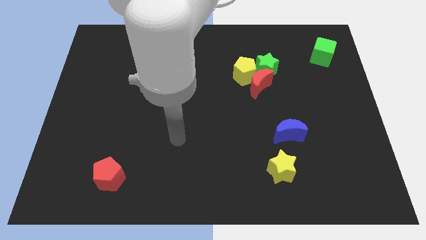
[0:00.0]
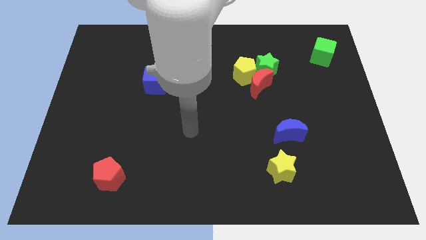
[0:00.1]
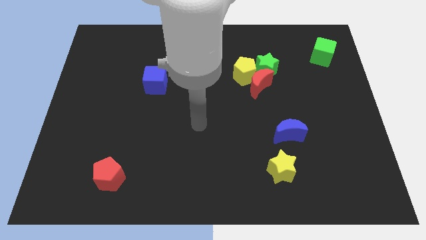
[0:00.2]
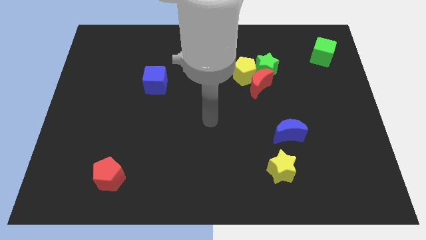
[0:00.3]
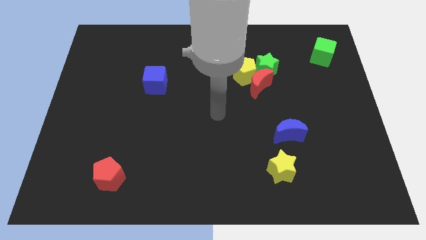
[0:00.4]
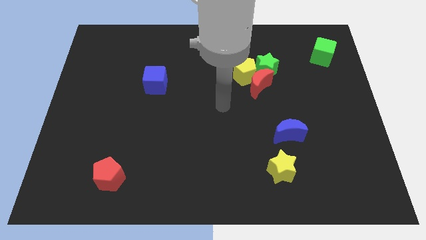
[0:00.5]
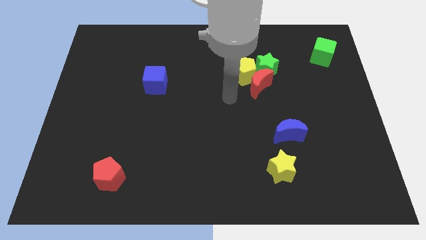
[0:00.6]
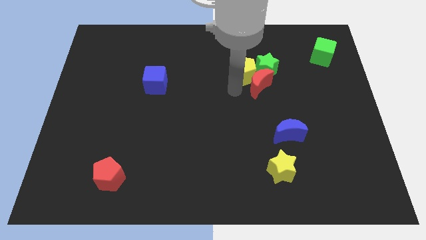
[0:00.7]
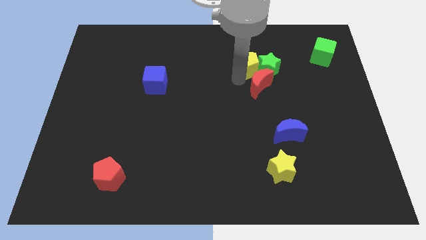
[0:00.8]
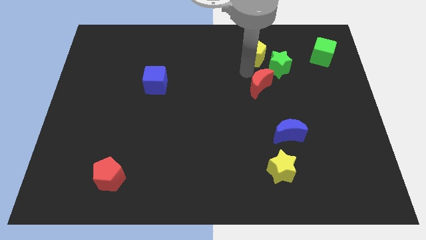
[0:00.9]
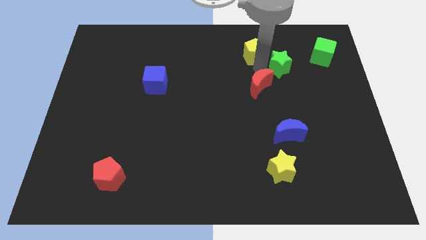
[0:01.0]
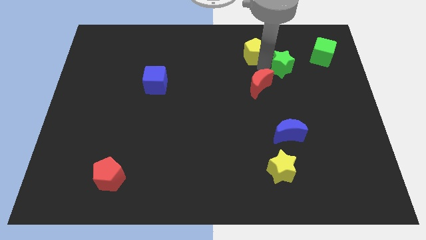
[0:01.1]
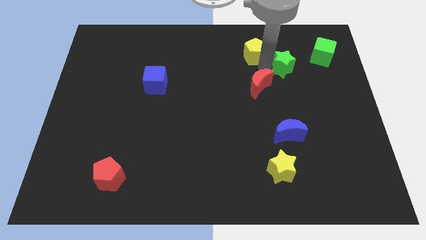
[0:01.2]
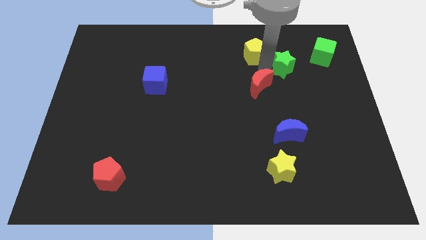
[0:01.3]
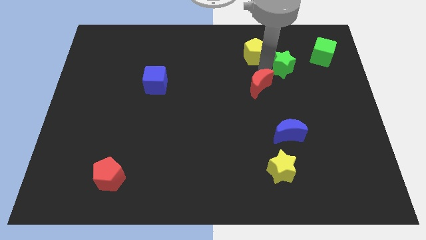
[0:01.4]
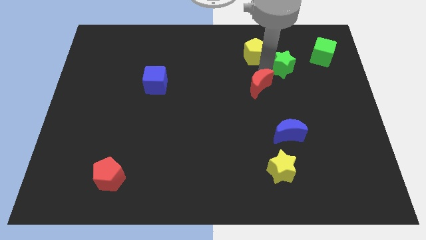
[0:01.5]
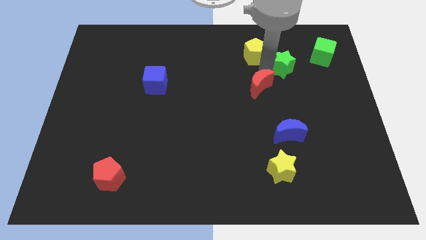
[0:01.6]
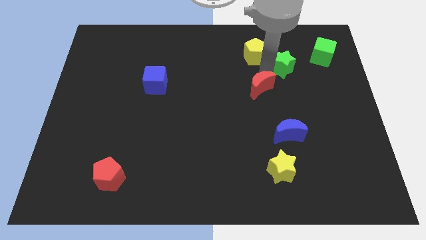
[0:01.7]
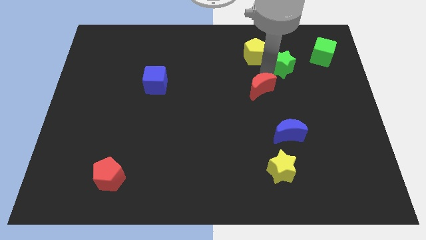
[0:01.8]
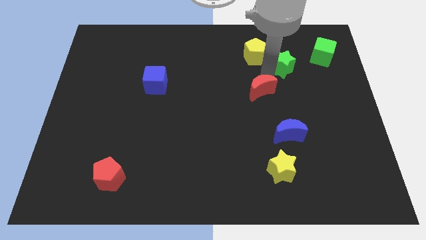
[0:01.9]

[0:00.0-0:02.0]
separate the red moon from the yellow pentagon and green star

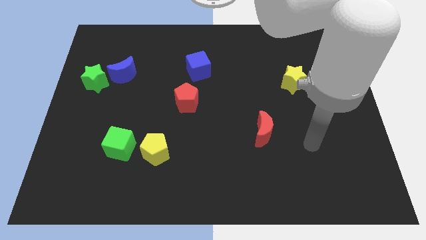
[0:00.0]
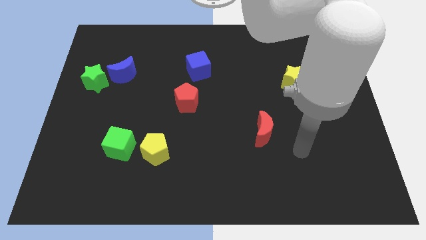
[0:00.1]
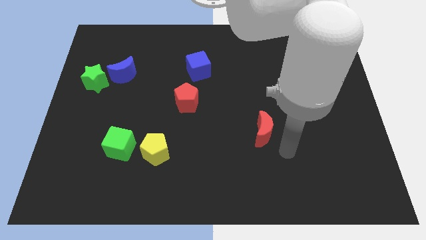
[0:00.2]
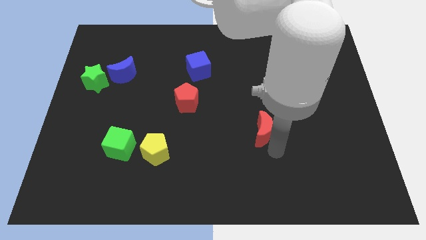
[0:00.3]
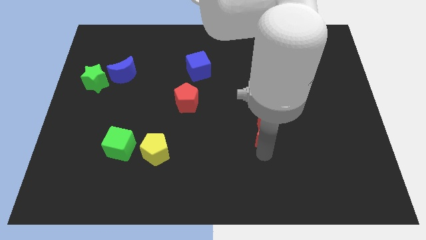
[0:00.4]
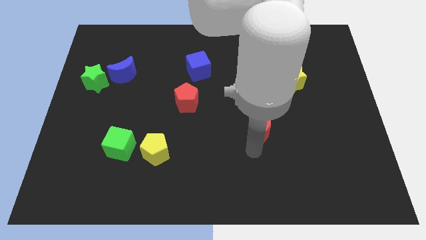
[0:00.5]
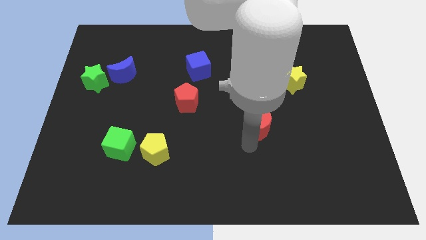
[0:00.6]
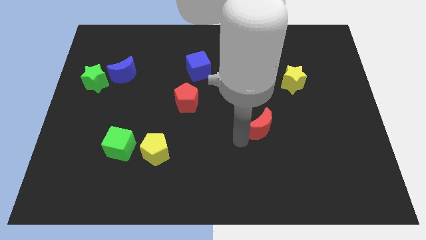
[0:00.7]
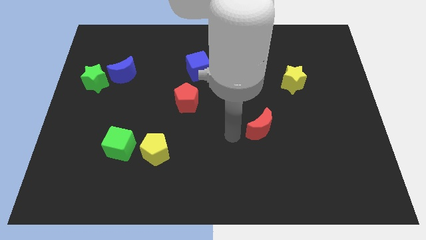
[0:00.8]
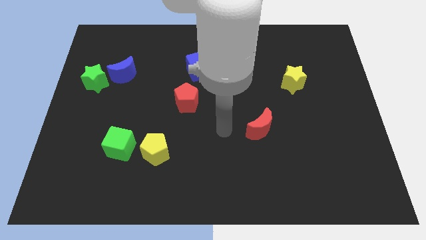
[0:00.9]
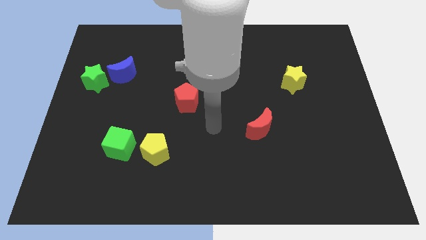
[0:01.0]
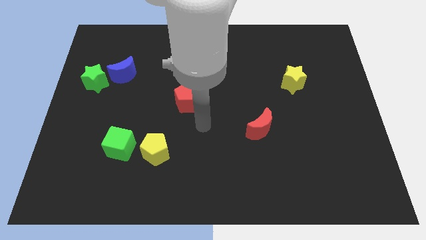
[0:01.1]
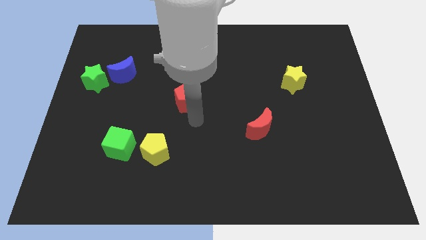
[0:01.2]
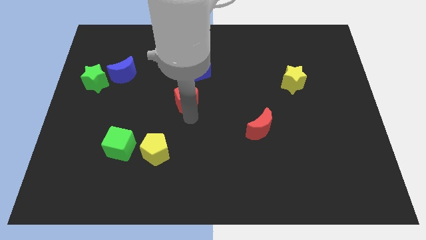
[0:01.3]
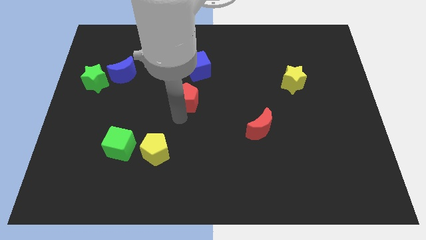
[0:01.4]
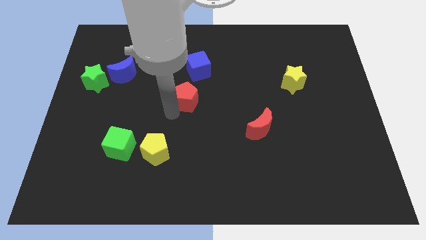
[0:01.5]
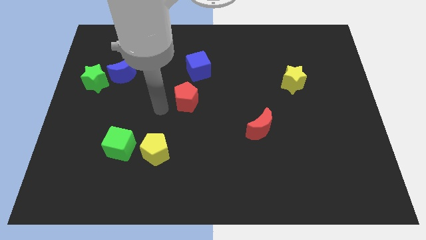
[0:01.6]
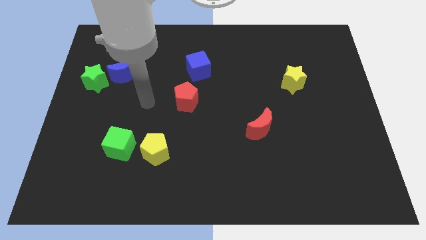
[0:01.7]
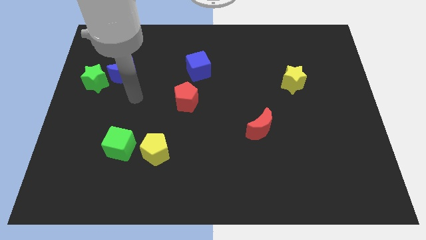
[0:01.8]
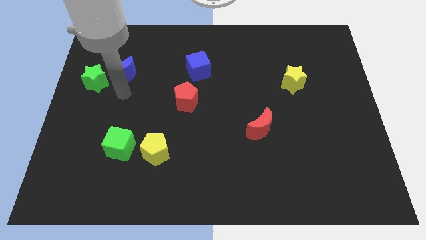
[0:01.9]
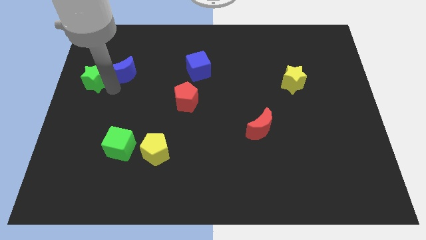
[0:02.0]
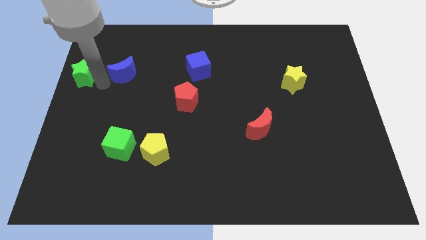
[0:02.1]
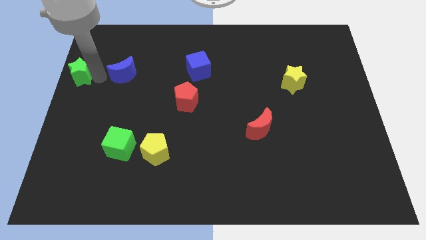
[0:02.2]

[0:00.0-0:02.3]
pull the blue moon apart from the green star

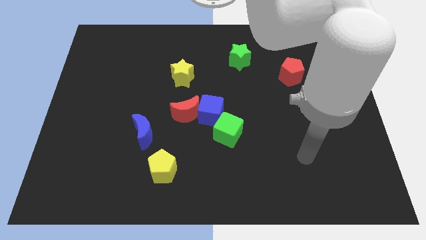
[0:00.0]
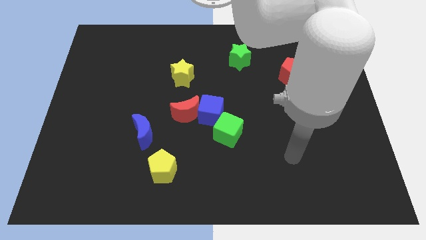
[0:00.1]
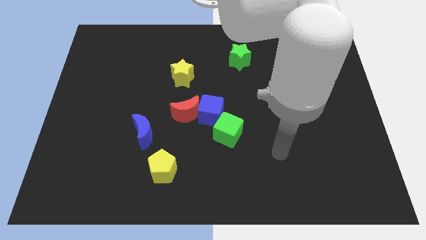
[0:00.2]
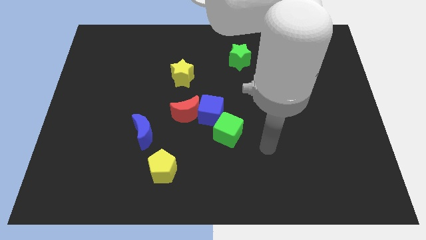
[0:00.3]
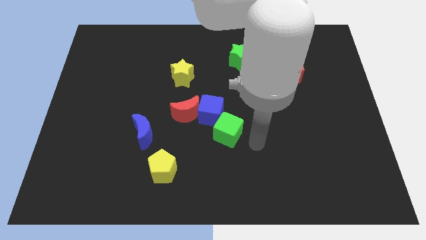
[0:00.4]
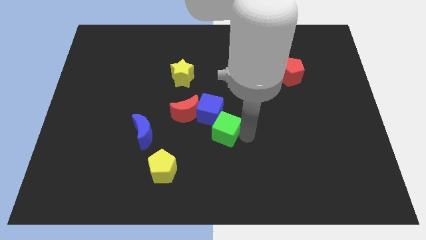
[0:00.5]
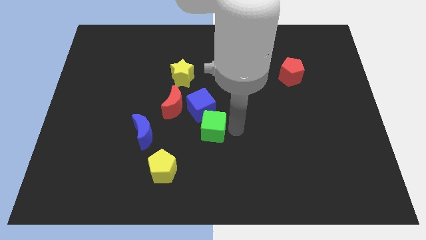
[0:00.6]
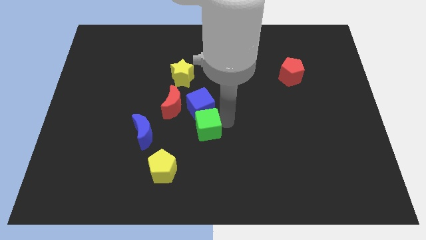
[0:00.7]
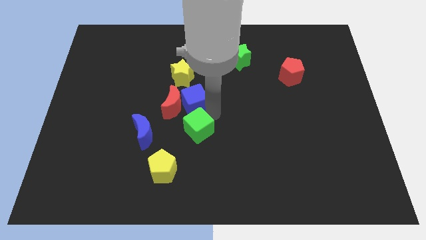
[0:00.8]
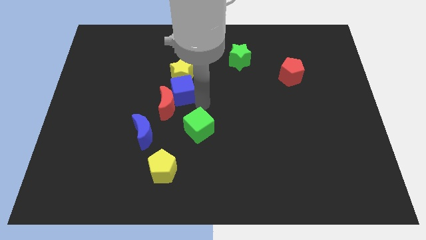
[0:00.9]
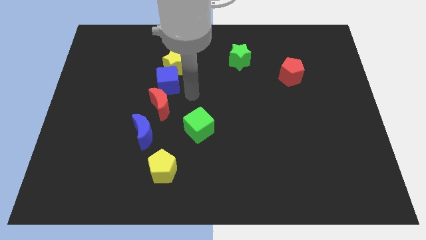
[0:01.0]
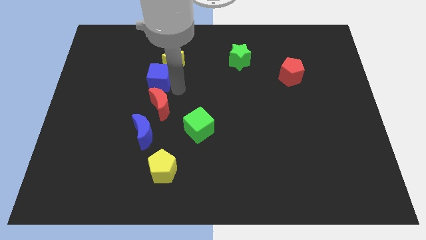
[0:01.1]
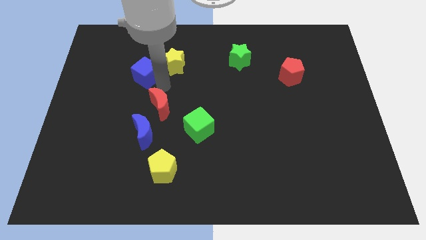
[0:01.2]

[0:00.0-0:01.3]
move the red moon away from the blue cube

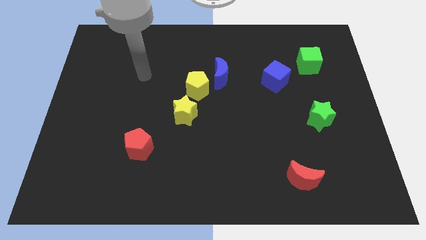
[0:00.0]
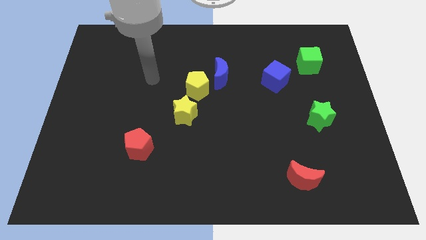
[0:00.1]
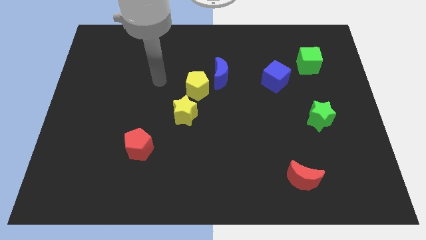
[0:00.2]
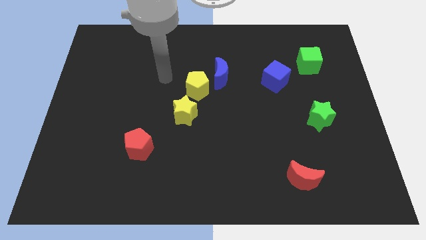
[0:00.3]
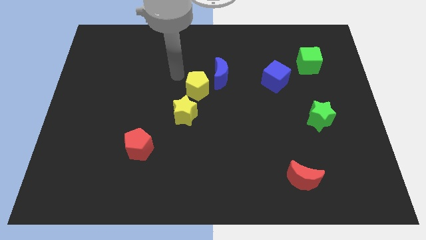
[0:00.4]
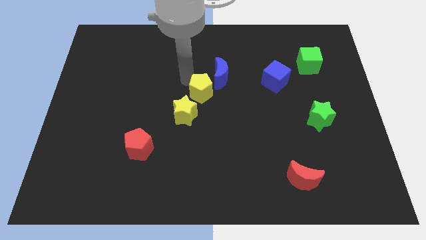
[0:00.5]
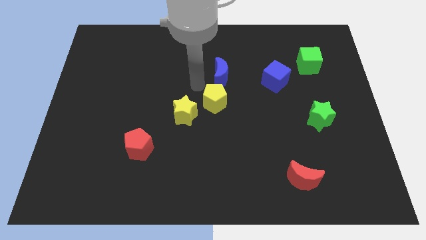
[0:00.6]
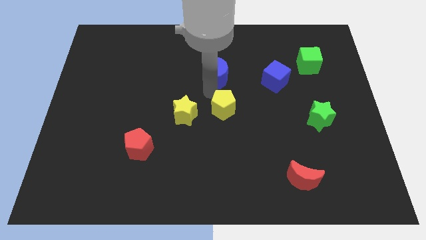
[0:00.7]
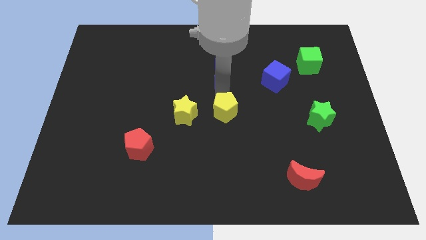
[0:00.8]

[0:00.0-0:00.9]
pull the blue moon apart from the yellow pentagon

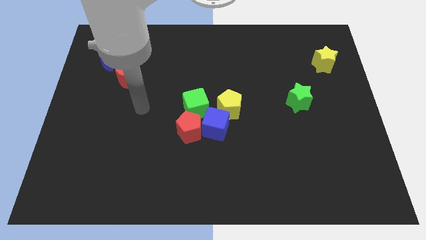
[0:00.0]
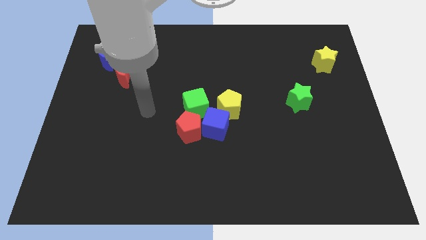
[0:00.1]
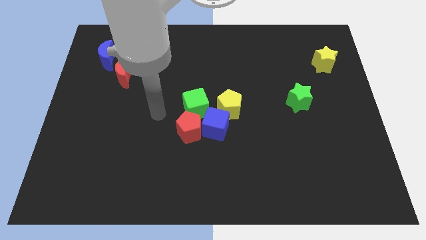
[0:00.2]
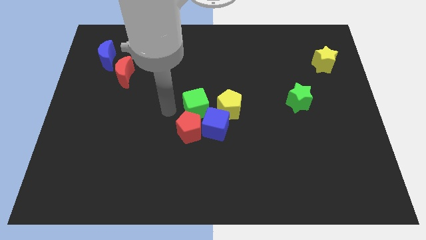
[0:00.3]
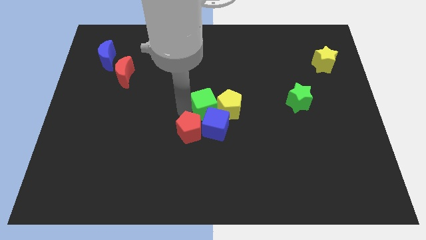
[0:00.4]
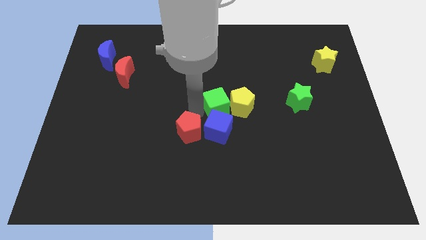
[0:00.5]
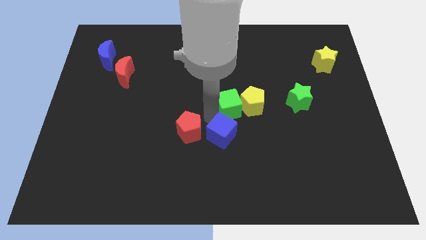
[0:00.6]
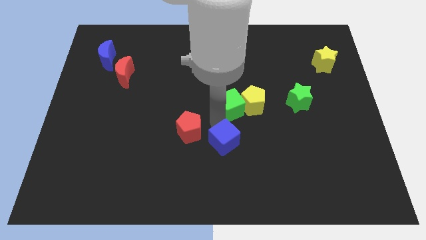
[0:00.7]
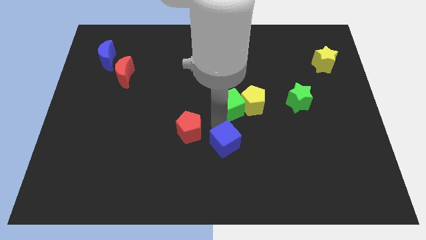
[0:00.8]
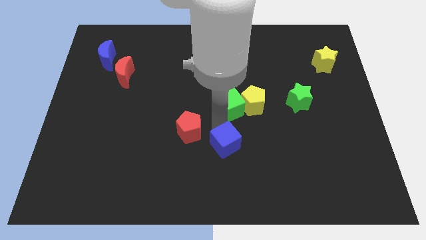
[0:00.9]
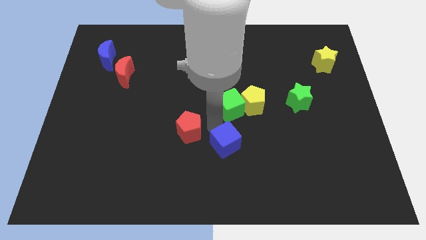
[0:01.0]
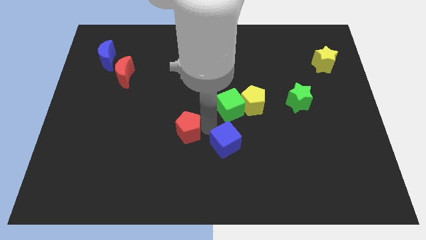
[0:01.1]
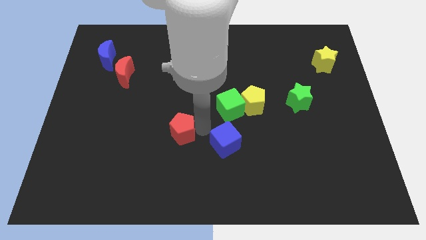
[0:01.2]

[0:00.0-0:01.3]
move the red pentagon away from the blue cube and green cube

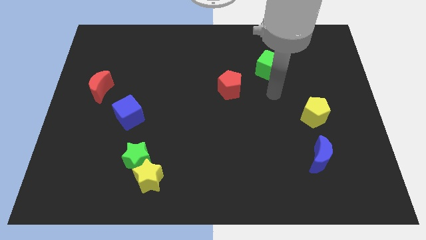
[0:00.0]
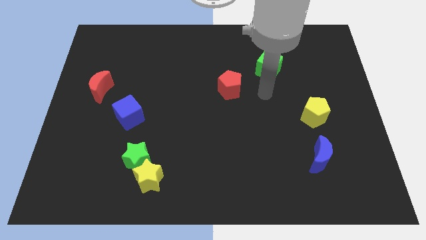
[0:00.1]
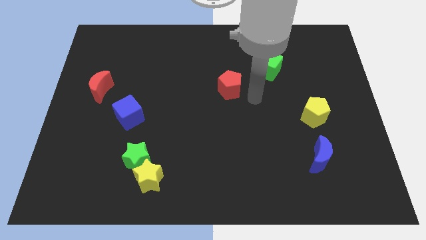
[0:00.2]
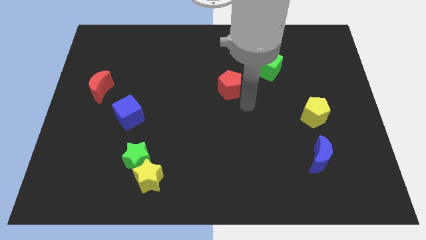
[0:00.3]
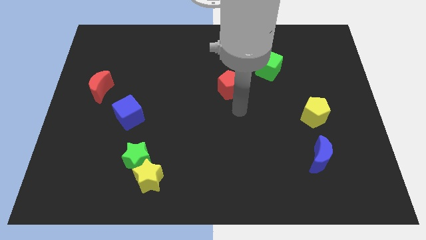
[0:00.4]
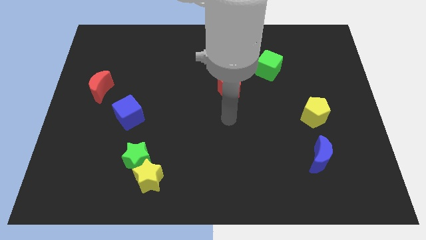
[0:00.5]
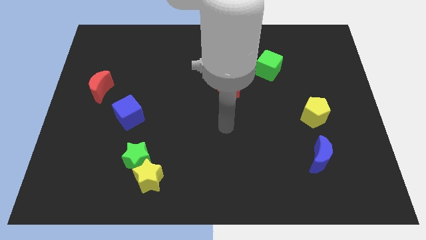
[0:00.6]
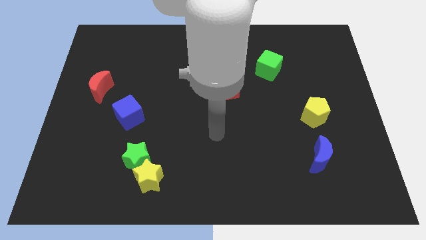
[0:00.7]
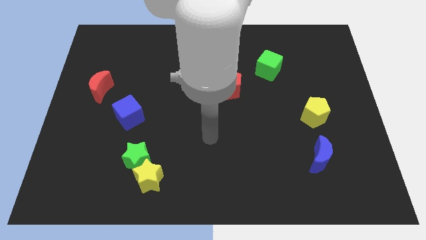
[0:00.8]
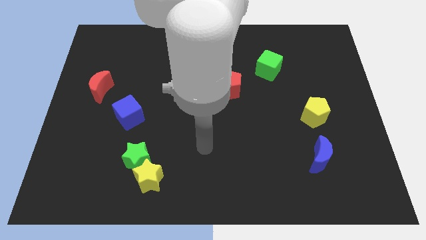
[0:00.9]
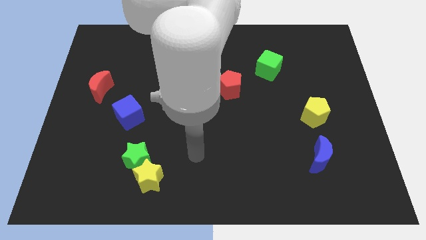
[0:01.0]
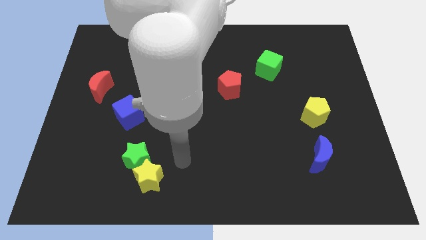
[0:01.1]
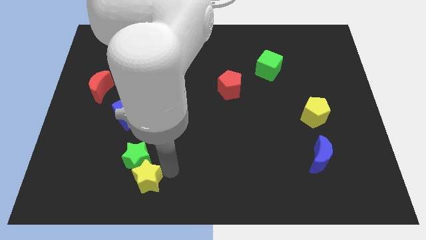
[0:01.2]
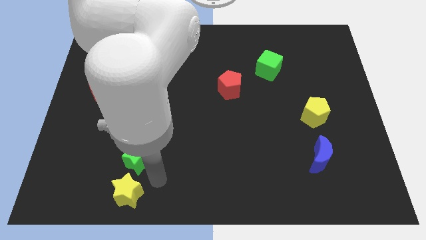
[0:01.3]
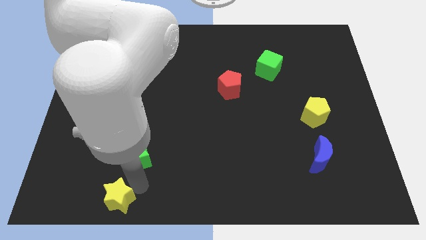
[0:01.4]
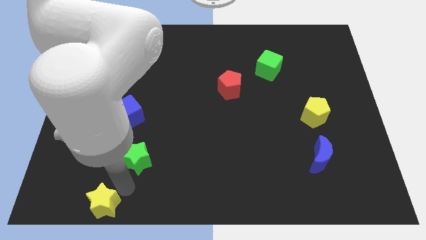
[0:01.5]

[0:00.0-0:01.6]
pull the green star apart from the yellow star
